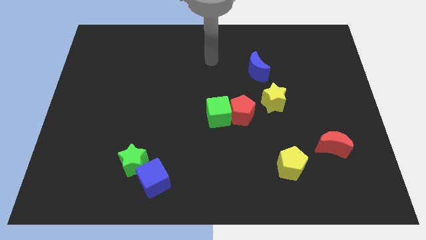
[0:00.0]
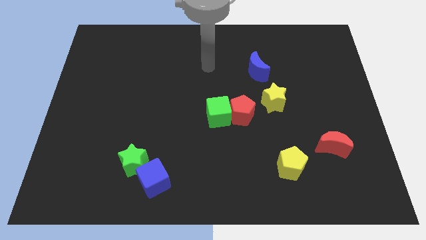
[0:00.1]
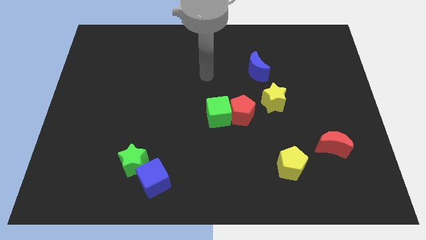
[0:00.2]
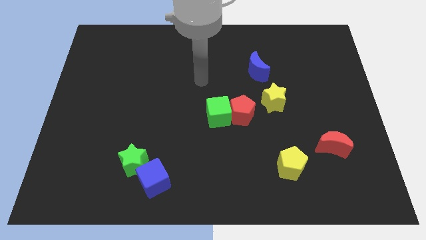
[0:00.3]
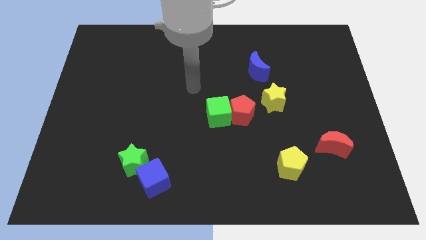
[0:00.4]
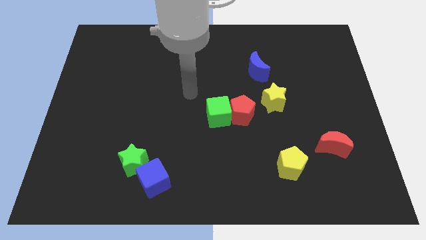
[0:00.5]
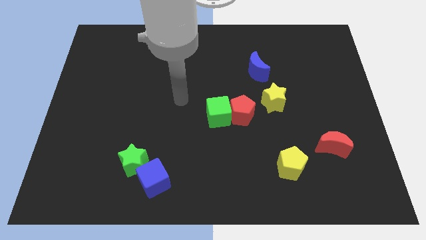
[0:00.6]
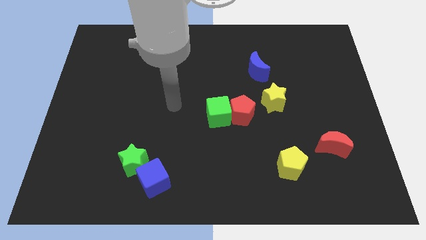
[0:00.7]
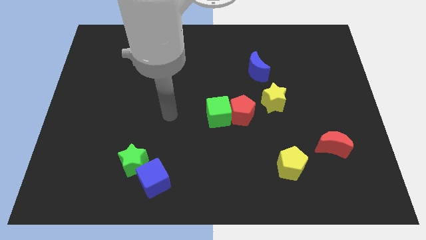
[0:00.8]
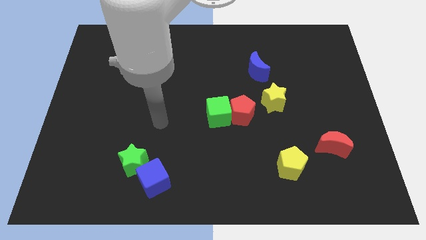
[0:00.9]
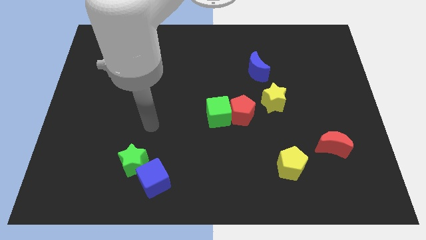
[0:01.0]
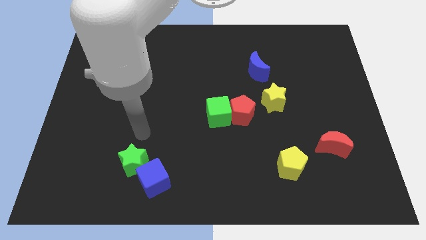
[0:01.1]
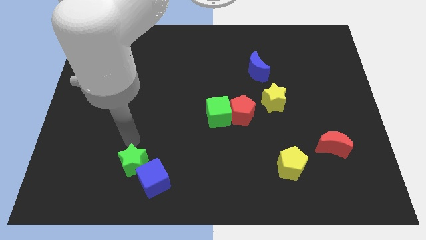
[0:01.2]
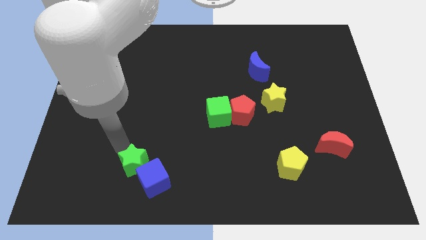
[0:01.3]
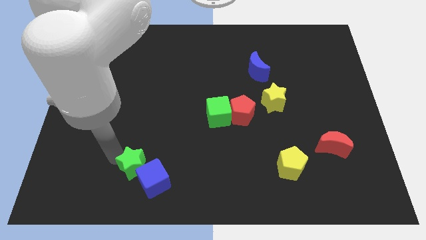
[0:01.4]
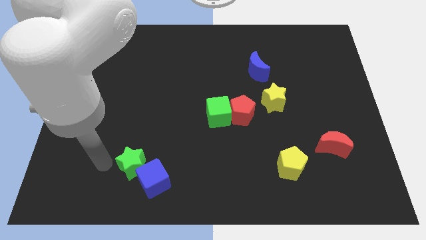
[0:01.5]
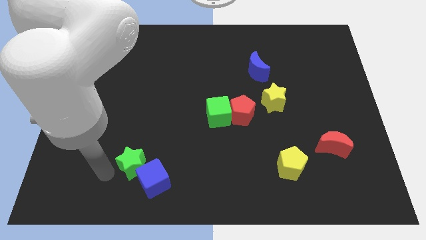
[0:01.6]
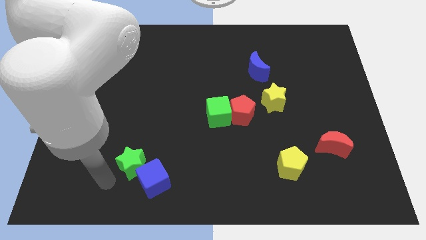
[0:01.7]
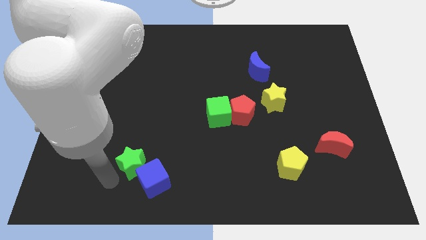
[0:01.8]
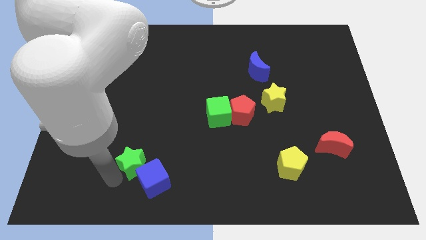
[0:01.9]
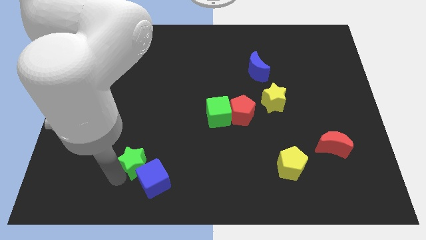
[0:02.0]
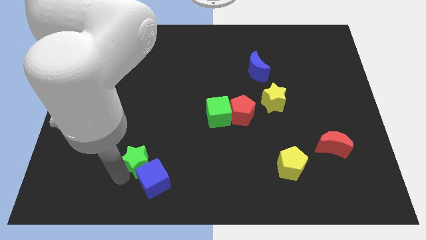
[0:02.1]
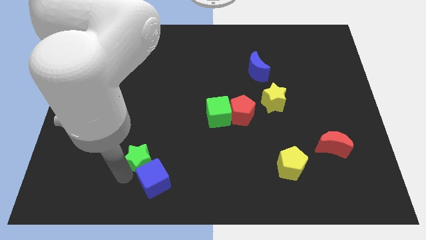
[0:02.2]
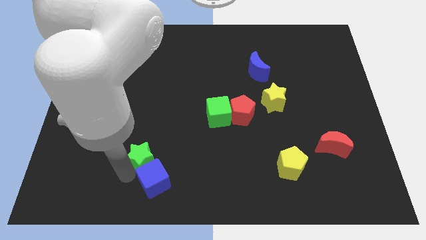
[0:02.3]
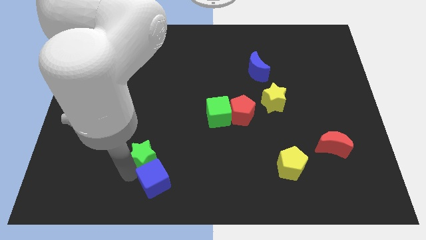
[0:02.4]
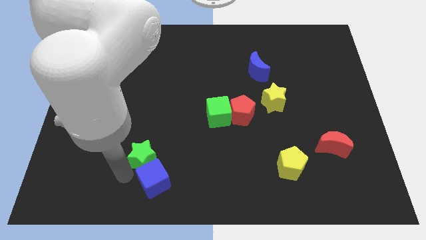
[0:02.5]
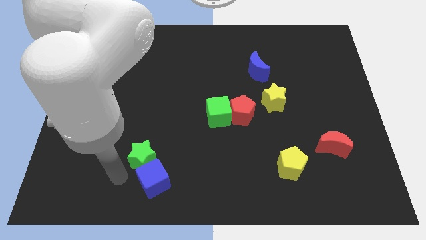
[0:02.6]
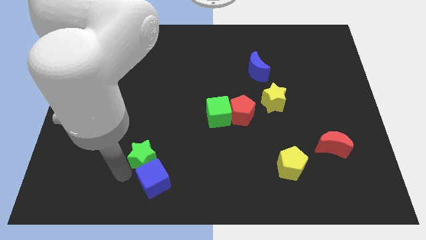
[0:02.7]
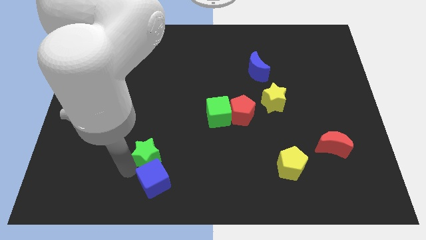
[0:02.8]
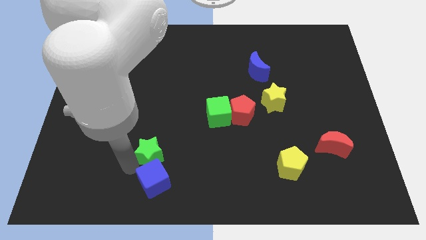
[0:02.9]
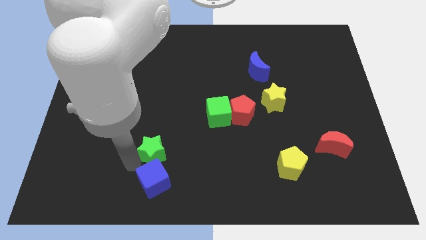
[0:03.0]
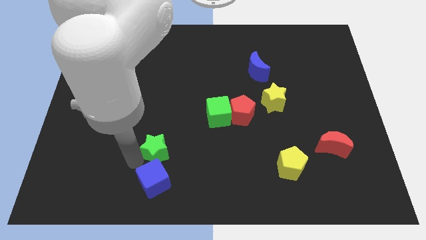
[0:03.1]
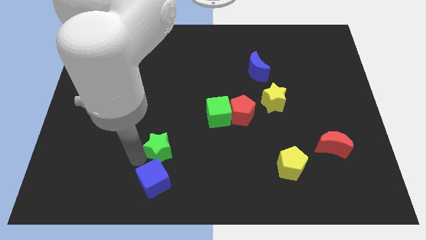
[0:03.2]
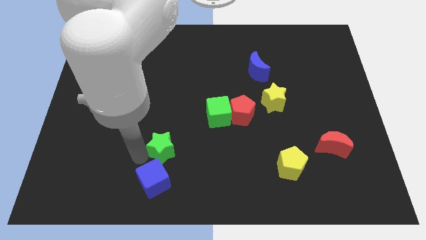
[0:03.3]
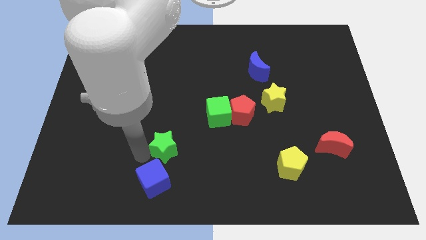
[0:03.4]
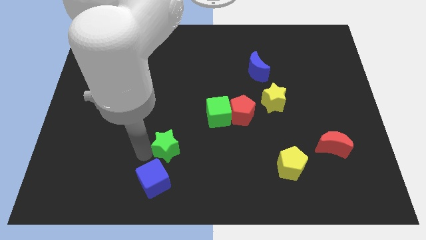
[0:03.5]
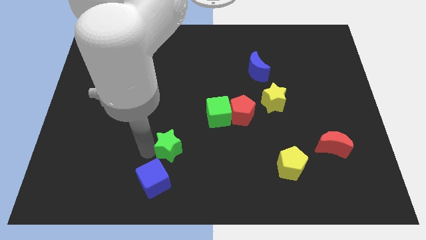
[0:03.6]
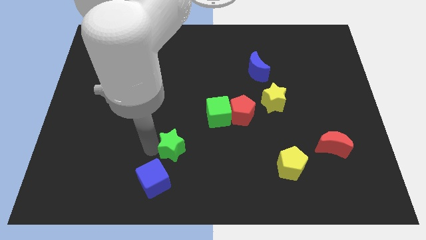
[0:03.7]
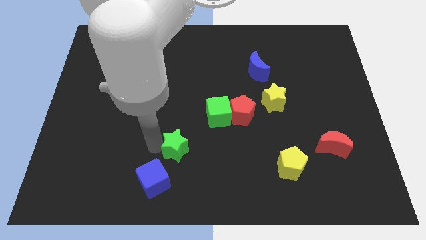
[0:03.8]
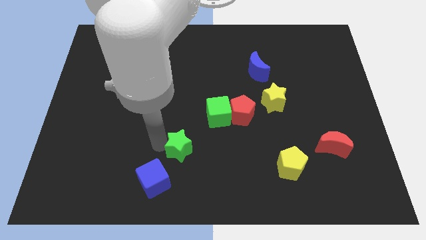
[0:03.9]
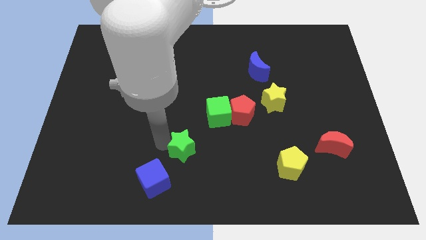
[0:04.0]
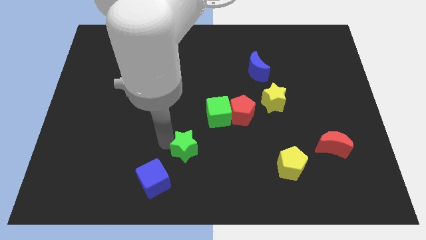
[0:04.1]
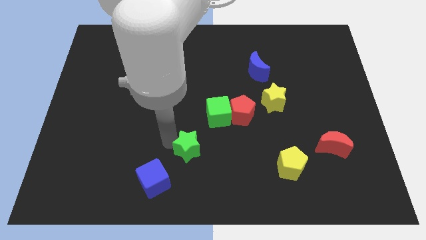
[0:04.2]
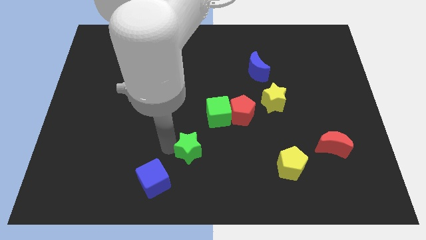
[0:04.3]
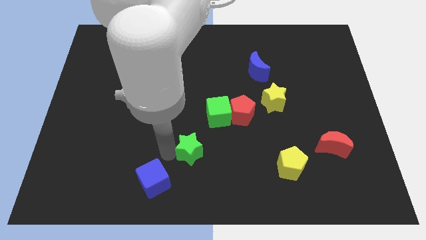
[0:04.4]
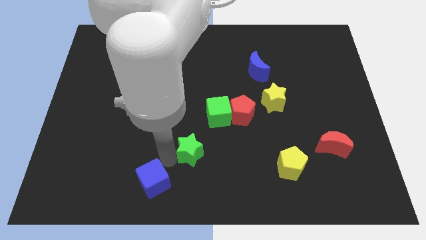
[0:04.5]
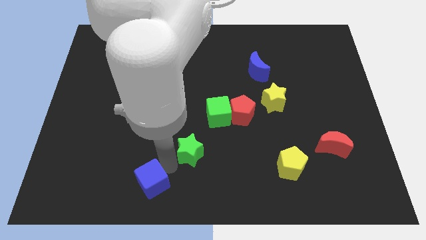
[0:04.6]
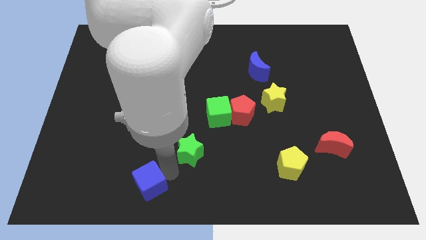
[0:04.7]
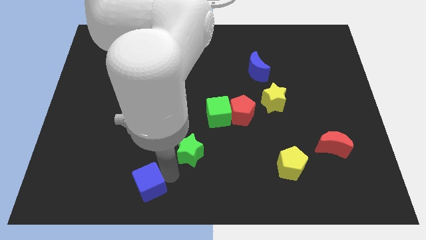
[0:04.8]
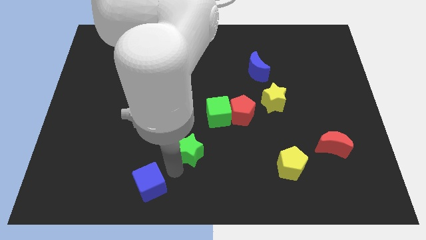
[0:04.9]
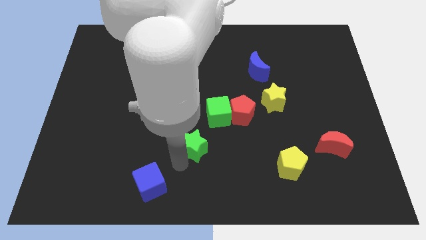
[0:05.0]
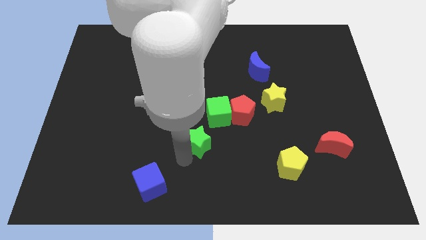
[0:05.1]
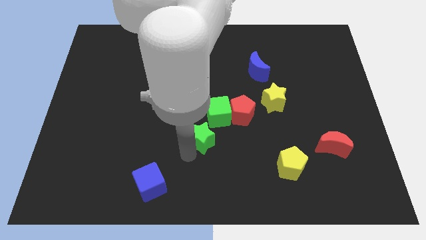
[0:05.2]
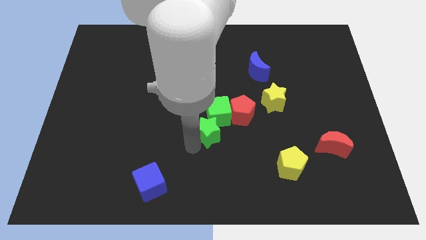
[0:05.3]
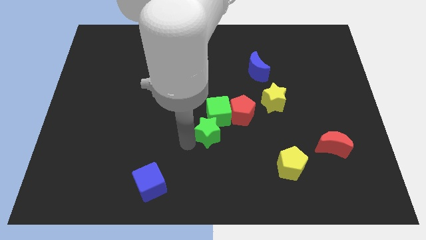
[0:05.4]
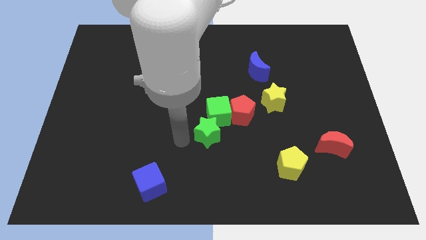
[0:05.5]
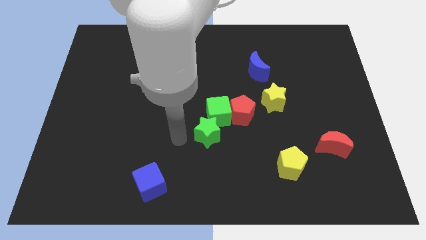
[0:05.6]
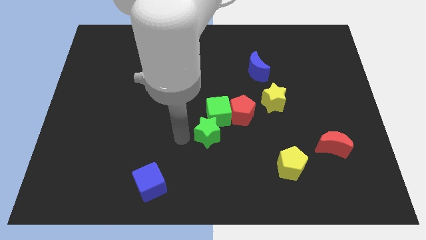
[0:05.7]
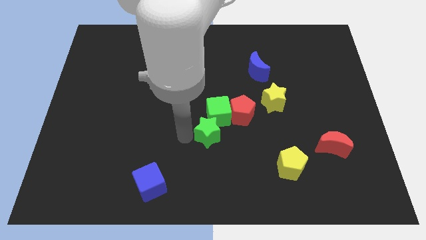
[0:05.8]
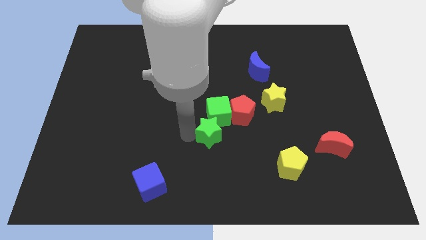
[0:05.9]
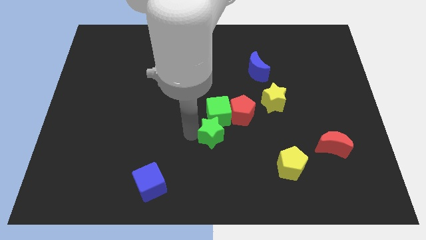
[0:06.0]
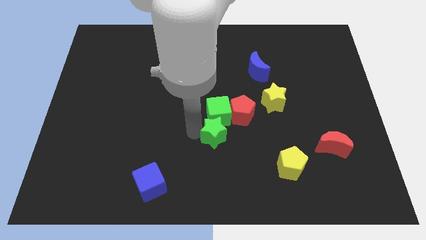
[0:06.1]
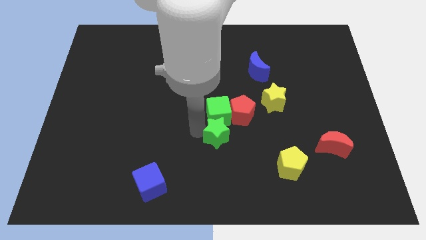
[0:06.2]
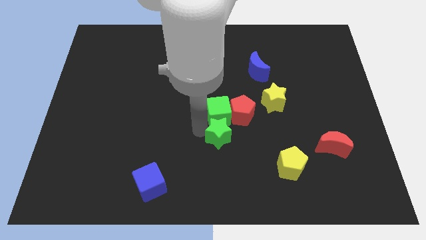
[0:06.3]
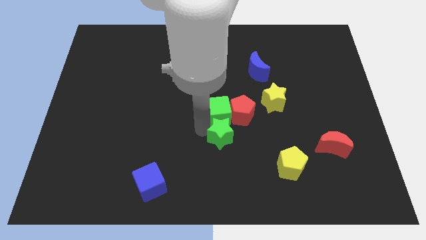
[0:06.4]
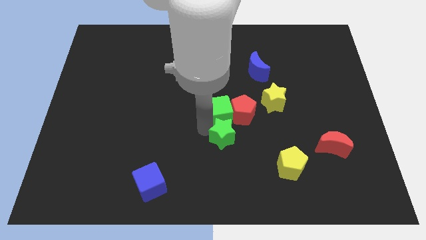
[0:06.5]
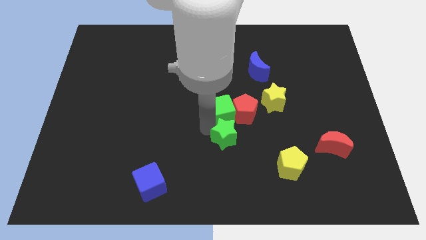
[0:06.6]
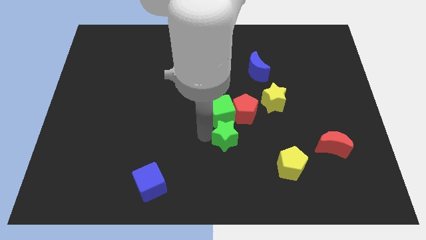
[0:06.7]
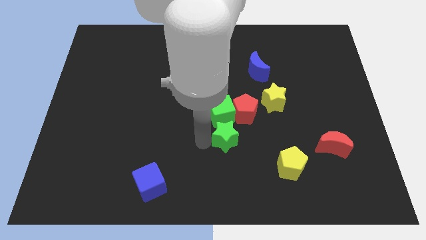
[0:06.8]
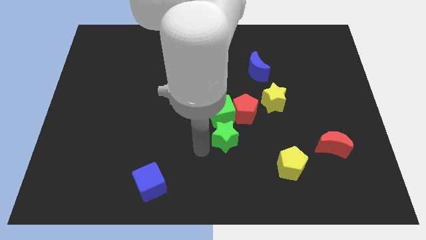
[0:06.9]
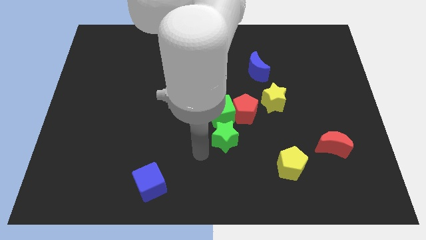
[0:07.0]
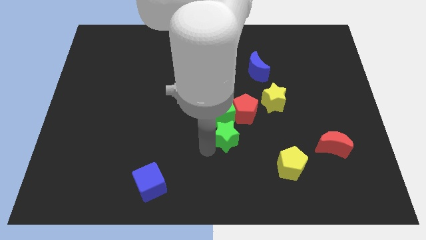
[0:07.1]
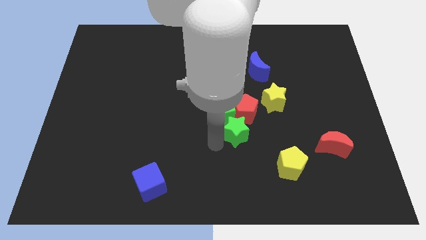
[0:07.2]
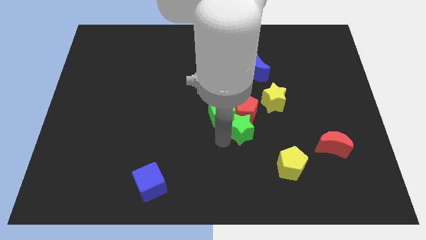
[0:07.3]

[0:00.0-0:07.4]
slide the green star to the bottom left of the yellow star
